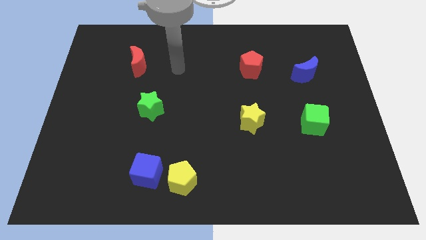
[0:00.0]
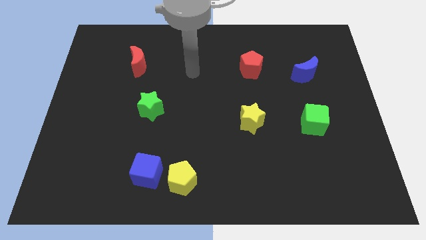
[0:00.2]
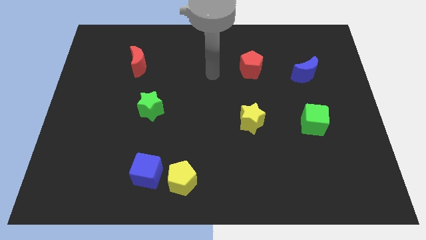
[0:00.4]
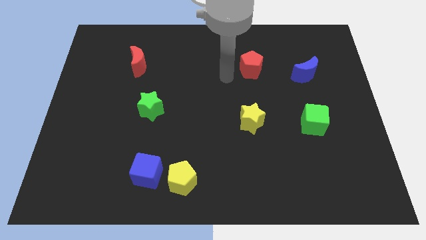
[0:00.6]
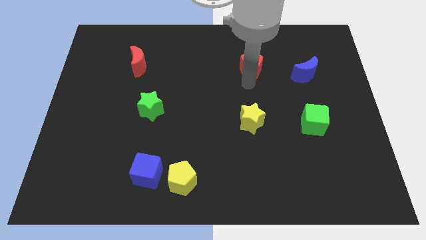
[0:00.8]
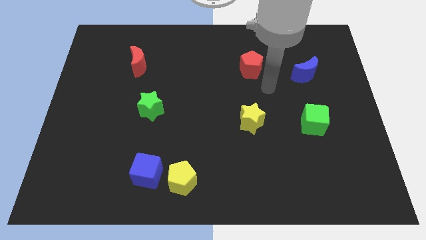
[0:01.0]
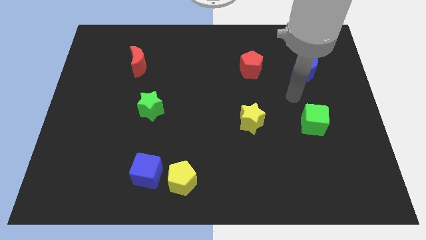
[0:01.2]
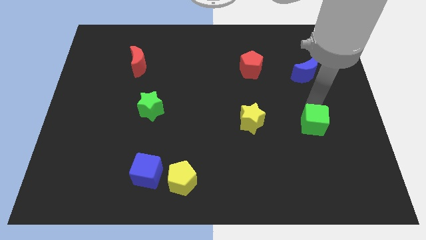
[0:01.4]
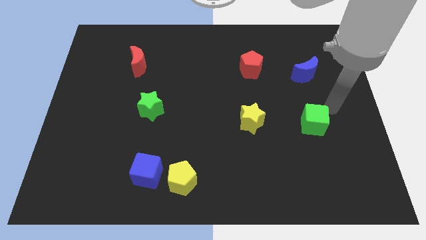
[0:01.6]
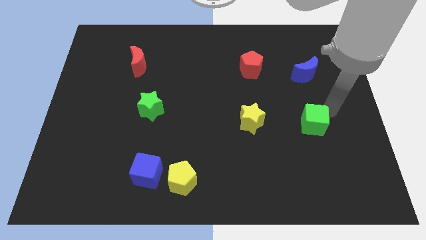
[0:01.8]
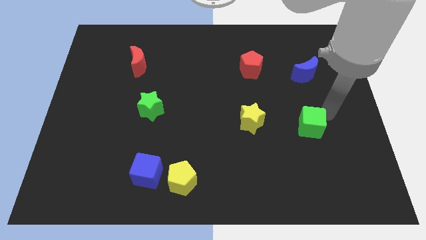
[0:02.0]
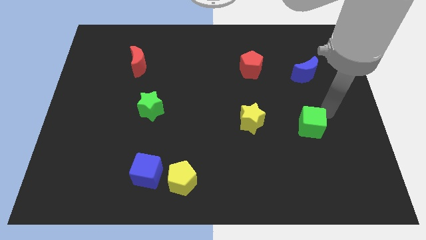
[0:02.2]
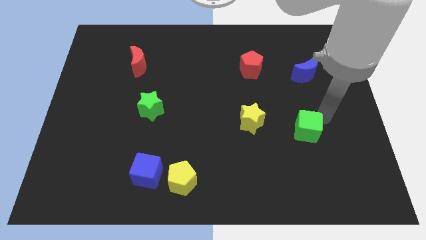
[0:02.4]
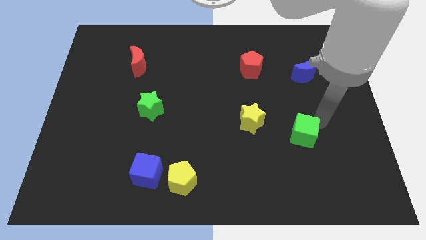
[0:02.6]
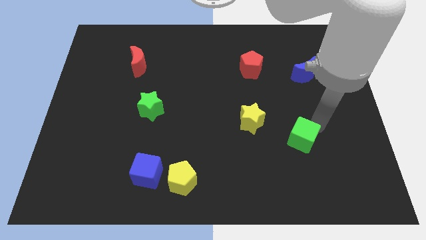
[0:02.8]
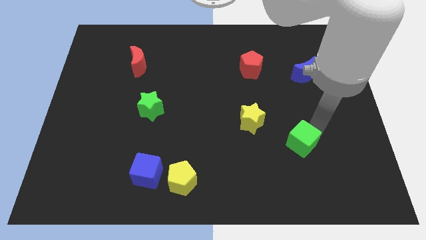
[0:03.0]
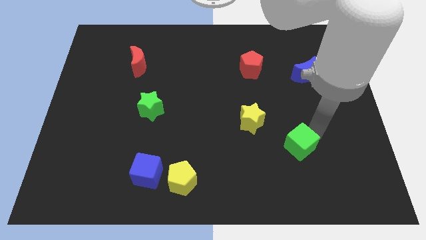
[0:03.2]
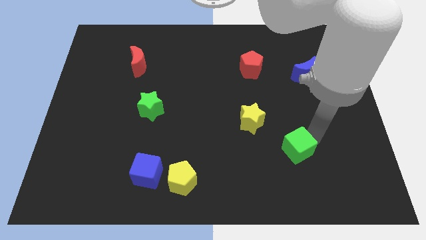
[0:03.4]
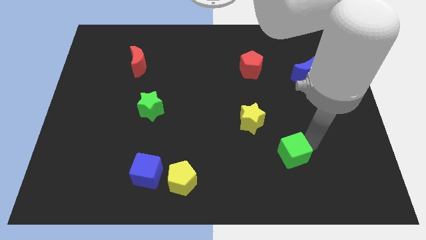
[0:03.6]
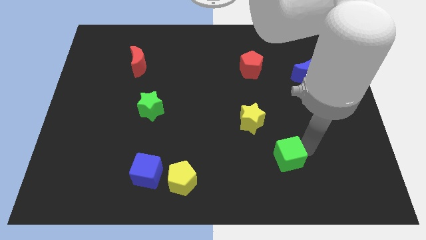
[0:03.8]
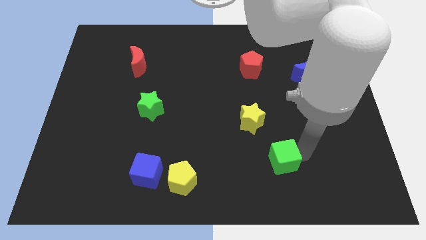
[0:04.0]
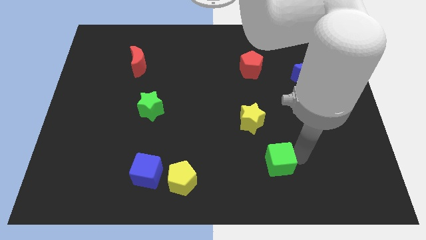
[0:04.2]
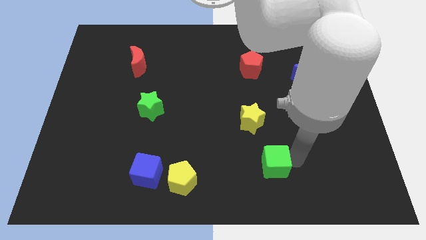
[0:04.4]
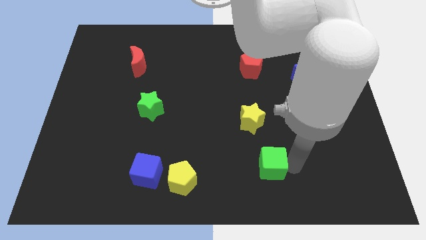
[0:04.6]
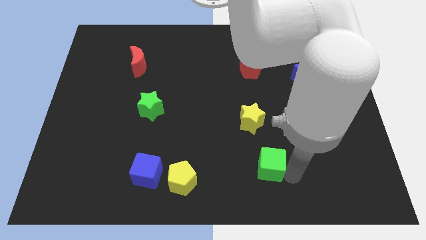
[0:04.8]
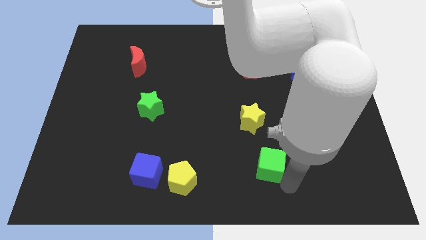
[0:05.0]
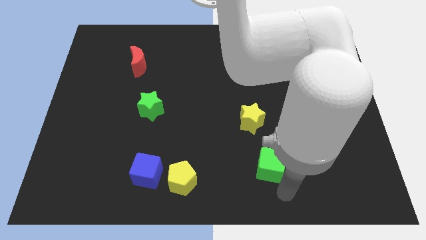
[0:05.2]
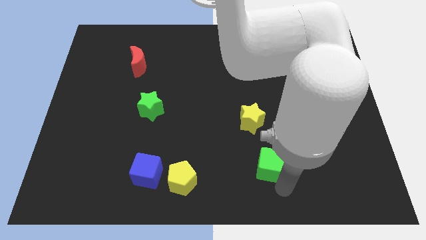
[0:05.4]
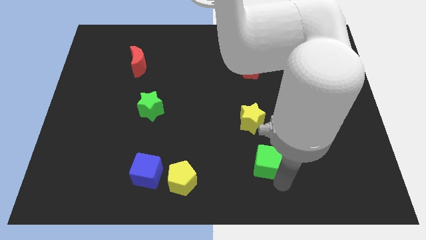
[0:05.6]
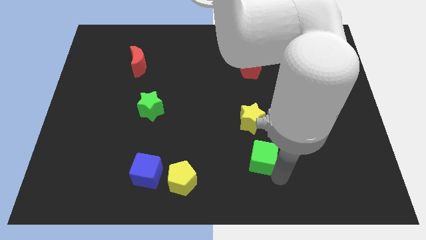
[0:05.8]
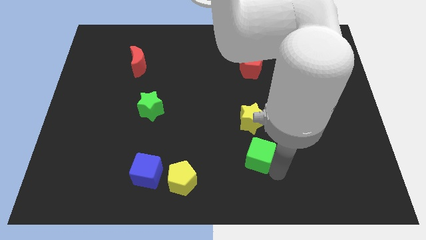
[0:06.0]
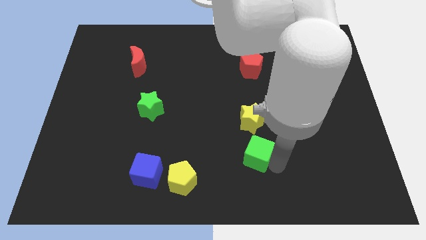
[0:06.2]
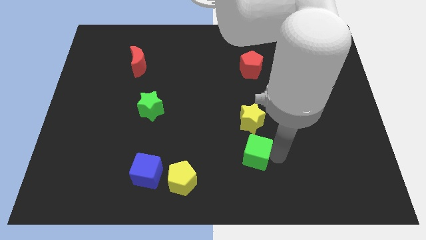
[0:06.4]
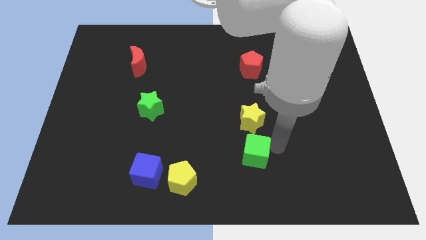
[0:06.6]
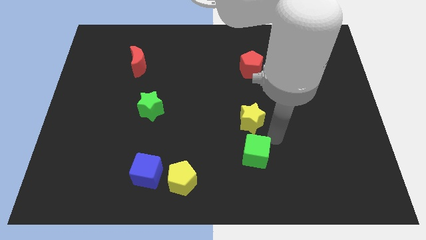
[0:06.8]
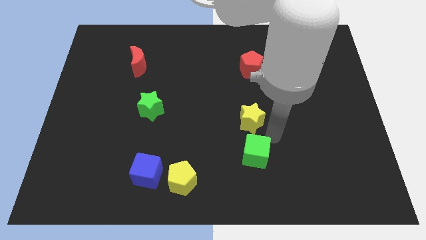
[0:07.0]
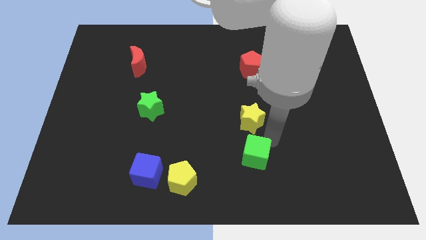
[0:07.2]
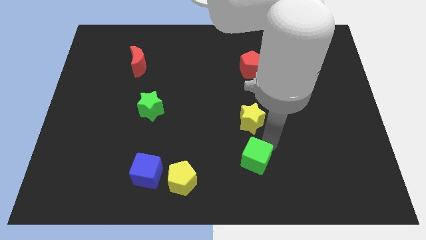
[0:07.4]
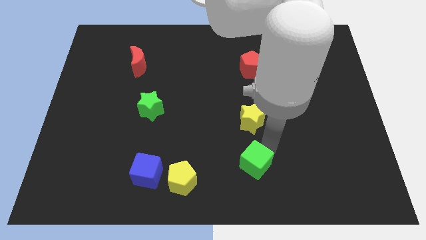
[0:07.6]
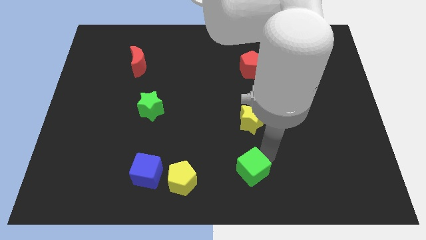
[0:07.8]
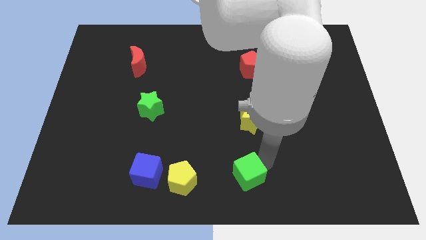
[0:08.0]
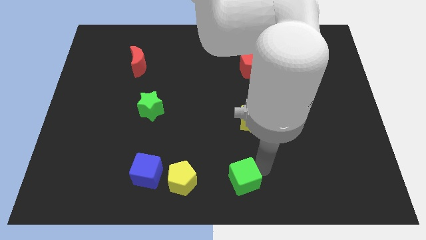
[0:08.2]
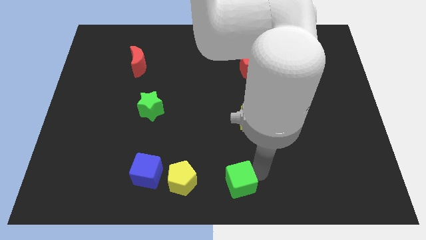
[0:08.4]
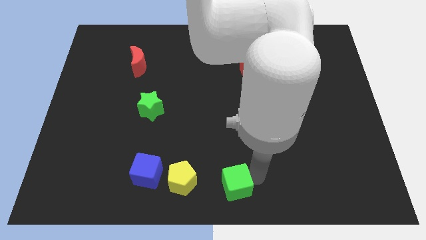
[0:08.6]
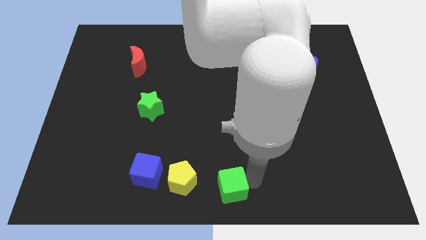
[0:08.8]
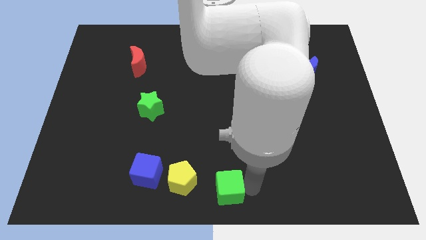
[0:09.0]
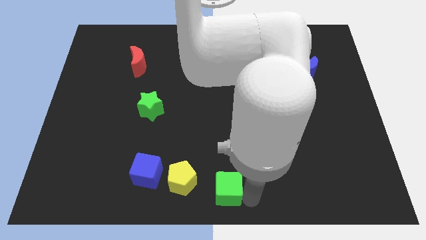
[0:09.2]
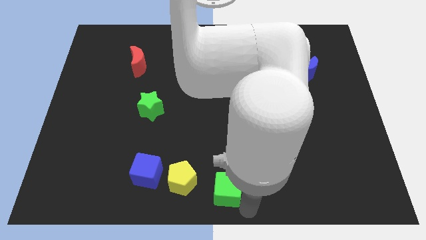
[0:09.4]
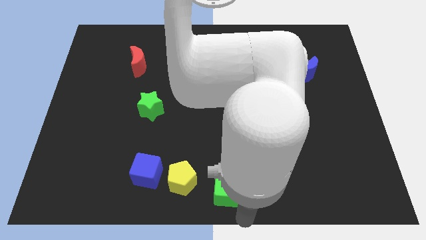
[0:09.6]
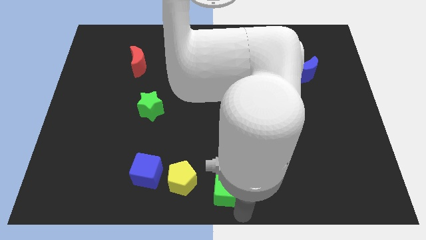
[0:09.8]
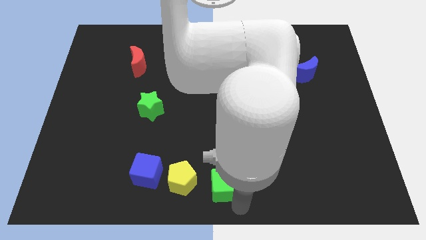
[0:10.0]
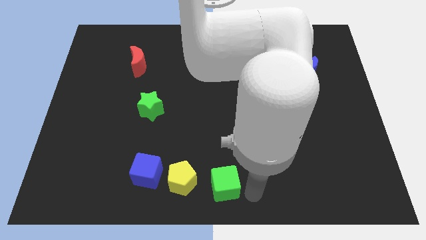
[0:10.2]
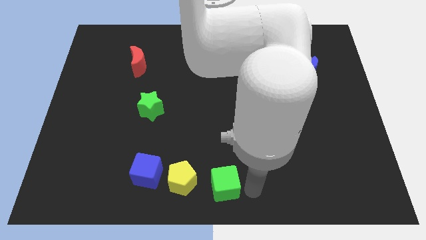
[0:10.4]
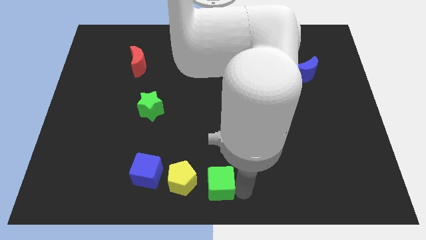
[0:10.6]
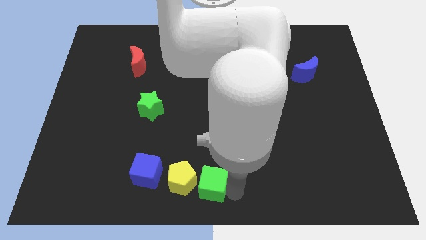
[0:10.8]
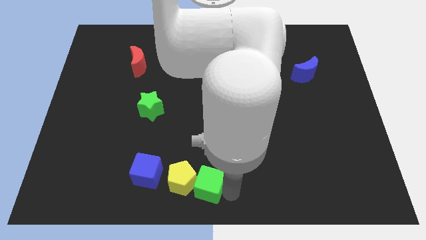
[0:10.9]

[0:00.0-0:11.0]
put the green cube towards the yellow pentagon

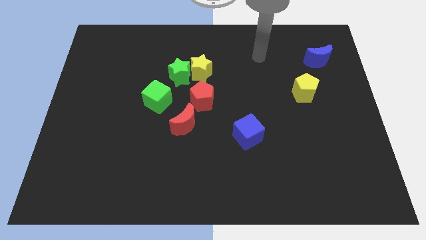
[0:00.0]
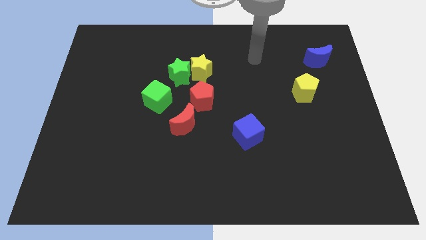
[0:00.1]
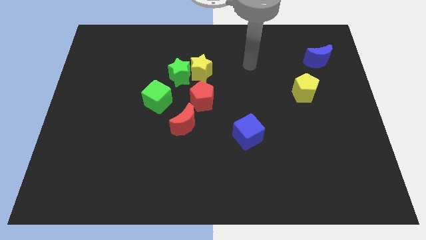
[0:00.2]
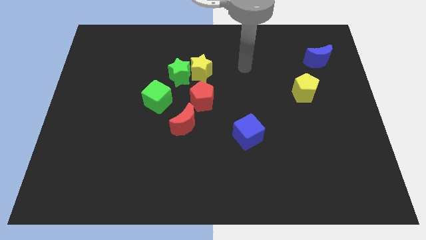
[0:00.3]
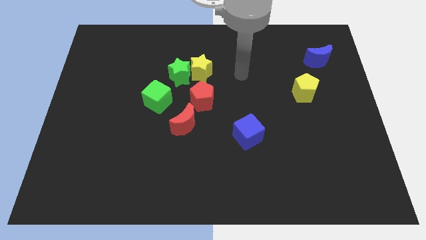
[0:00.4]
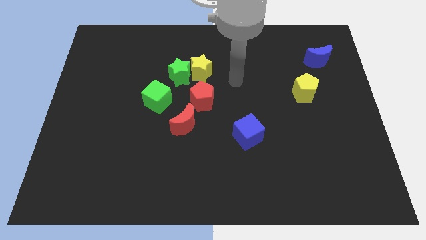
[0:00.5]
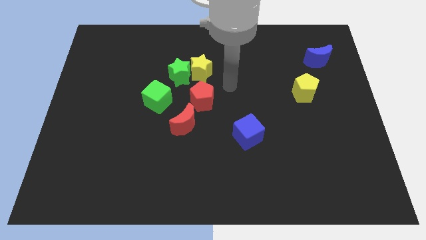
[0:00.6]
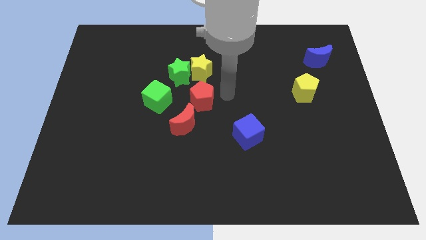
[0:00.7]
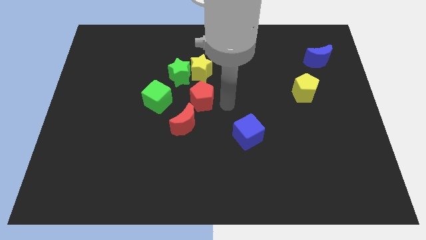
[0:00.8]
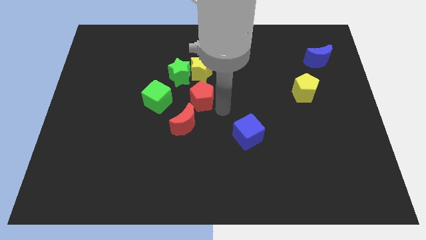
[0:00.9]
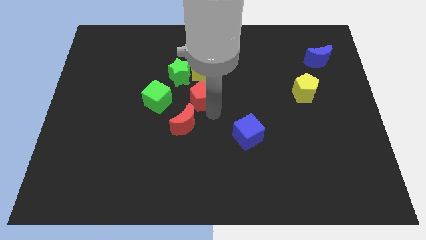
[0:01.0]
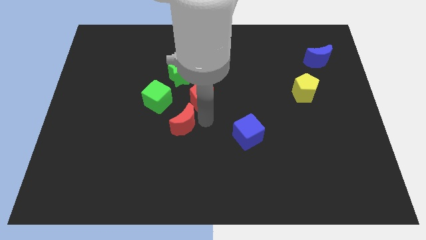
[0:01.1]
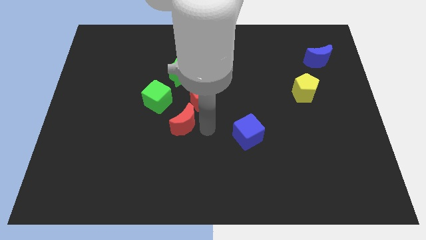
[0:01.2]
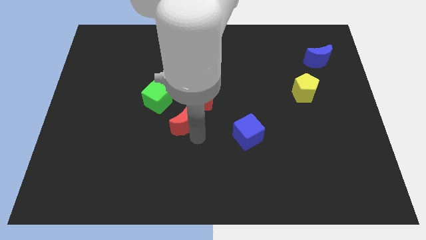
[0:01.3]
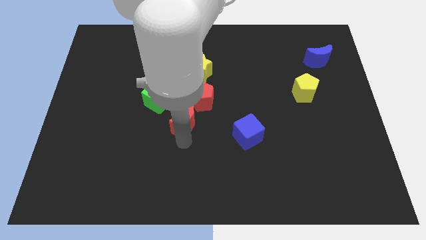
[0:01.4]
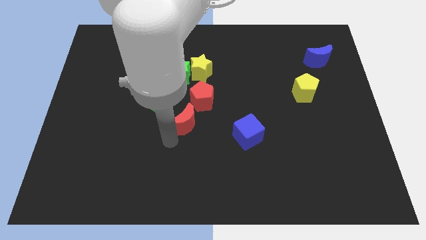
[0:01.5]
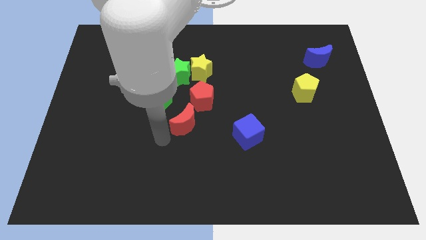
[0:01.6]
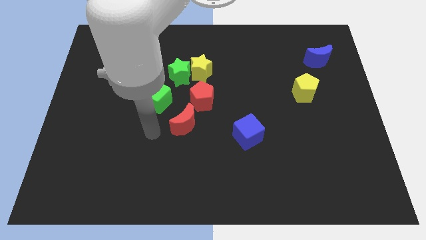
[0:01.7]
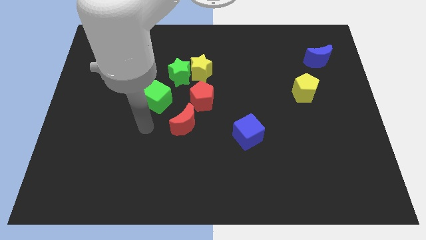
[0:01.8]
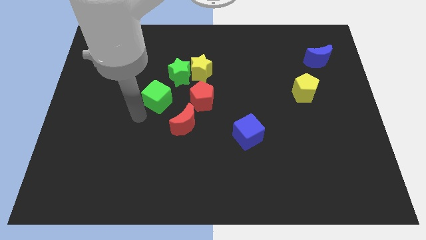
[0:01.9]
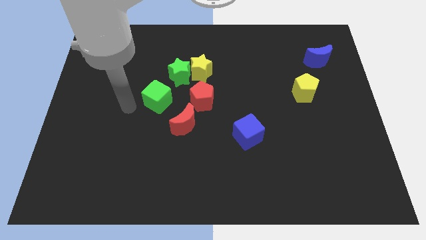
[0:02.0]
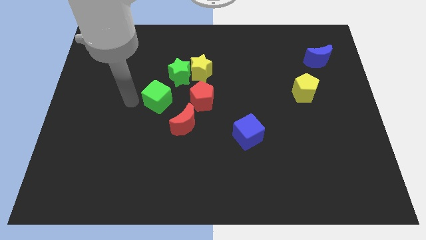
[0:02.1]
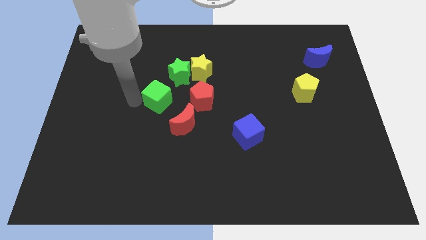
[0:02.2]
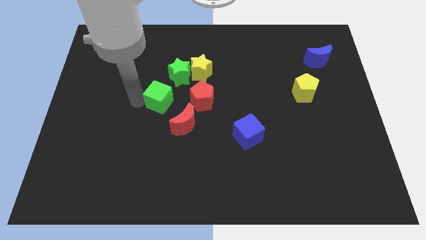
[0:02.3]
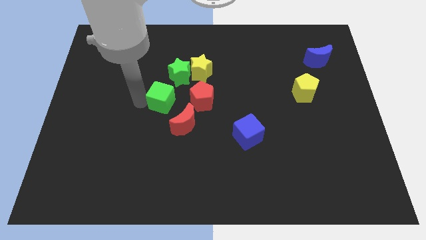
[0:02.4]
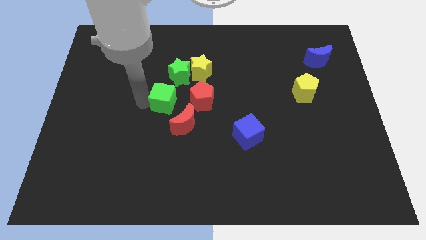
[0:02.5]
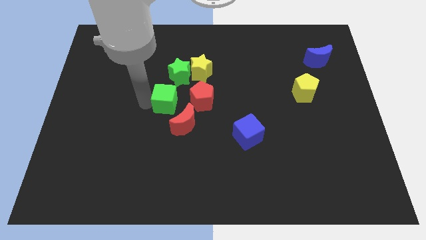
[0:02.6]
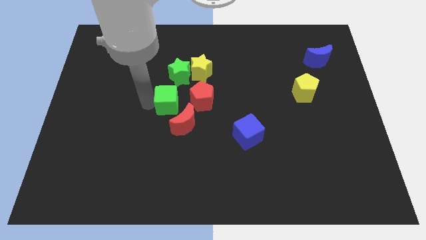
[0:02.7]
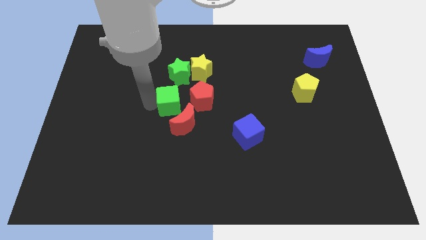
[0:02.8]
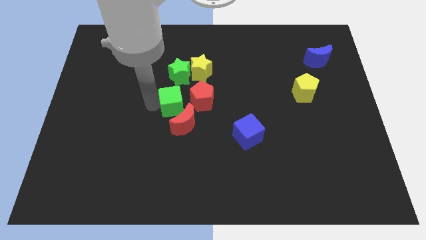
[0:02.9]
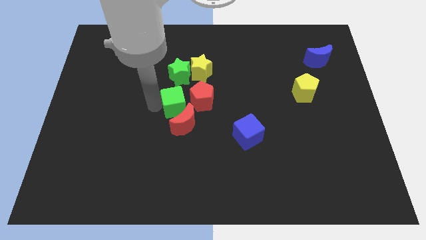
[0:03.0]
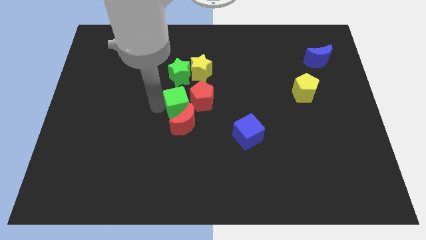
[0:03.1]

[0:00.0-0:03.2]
put the green cube next to the red pentagon
